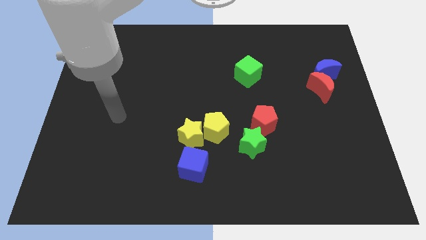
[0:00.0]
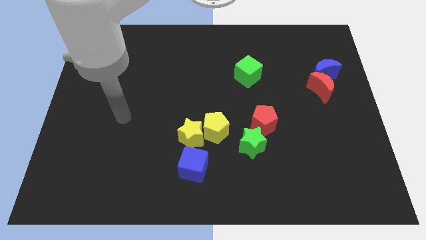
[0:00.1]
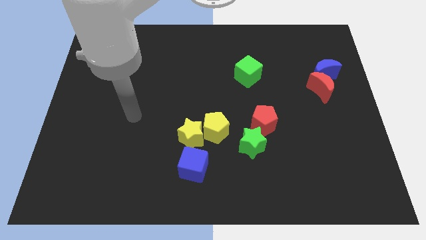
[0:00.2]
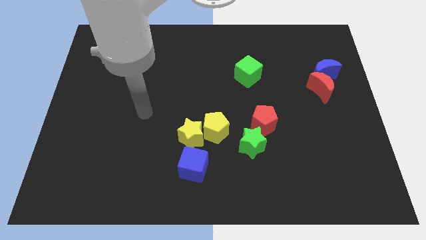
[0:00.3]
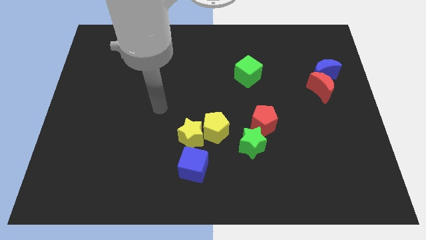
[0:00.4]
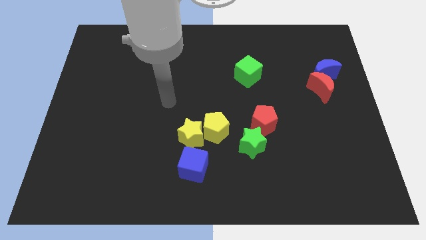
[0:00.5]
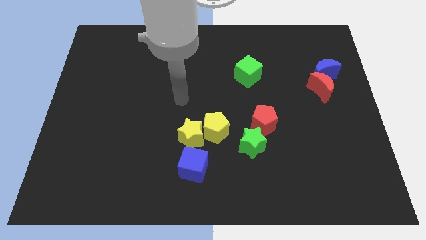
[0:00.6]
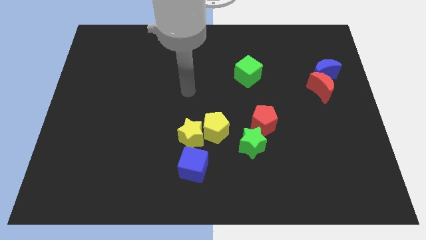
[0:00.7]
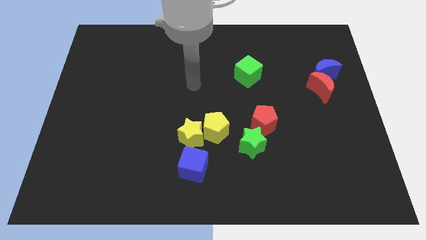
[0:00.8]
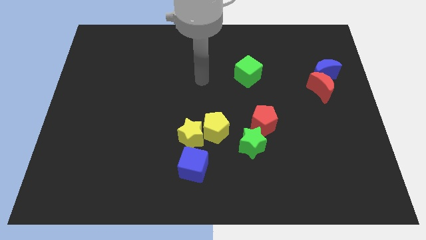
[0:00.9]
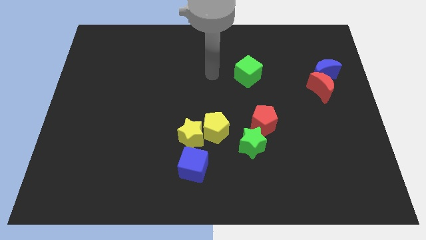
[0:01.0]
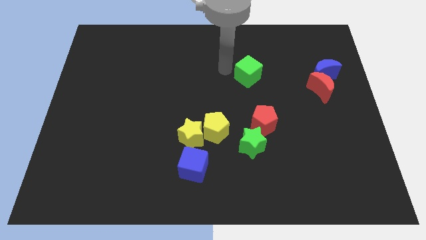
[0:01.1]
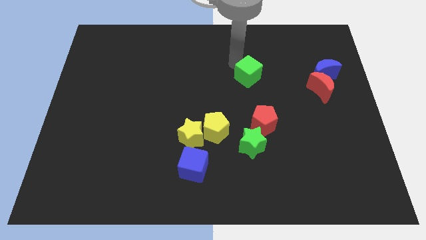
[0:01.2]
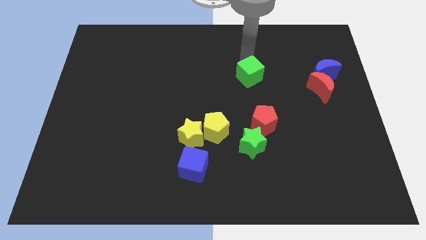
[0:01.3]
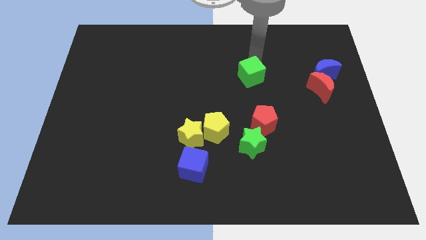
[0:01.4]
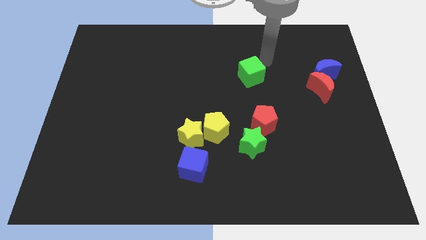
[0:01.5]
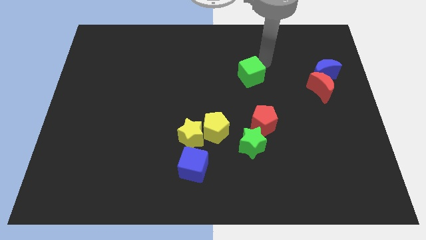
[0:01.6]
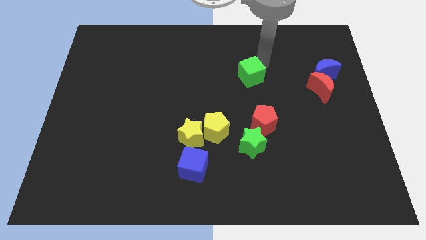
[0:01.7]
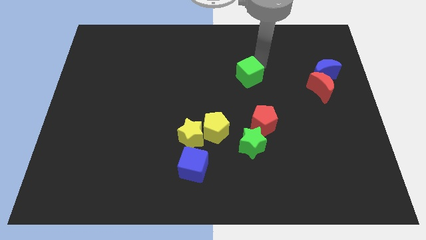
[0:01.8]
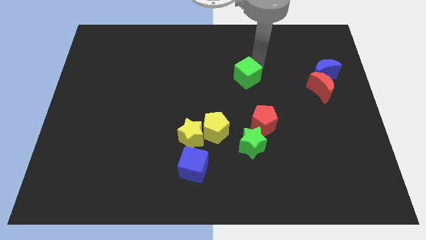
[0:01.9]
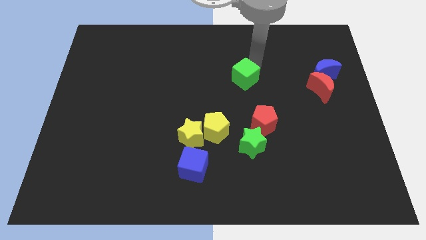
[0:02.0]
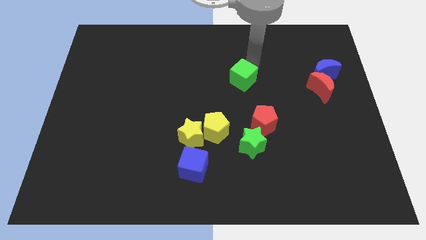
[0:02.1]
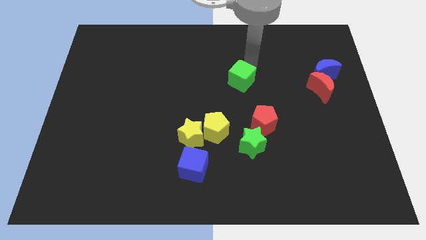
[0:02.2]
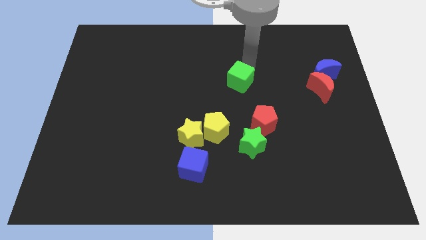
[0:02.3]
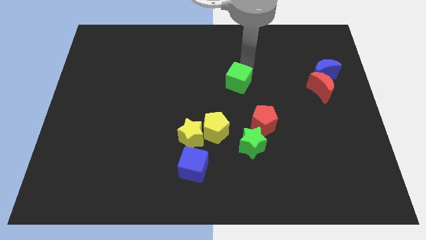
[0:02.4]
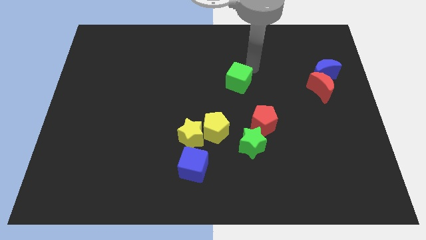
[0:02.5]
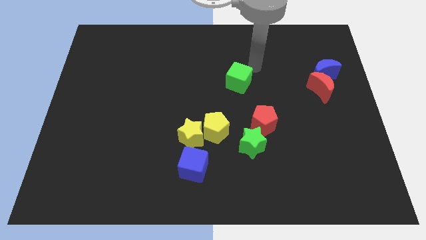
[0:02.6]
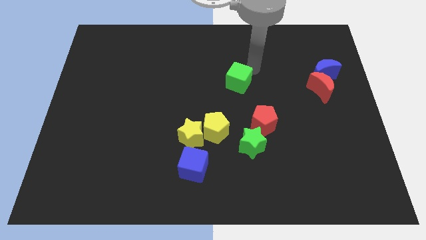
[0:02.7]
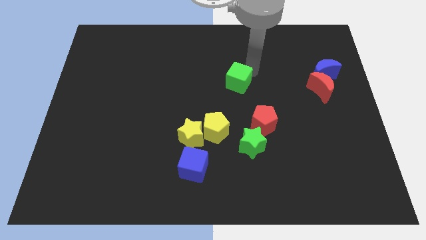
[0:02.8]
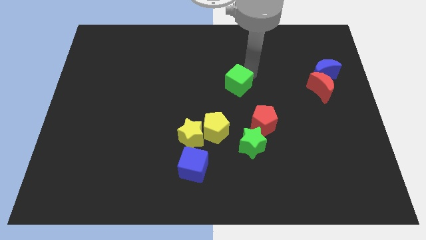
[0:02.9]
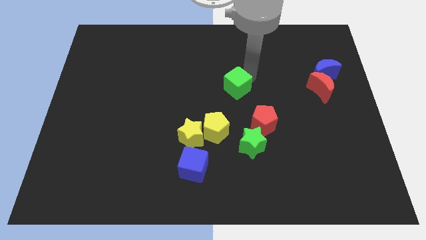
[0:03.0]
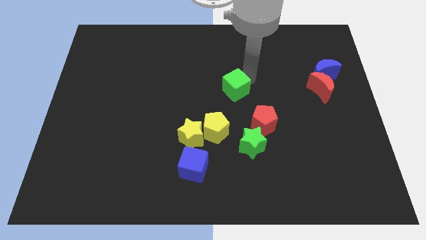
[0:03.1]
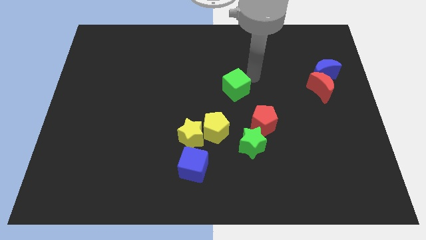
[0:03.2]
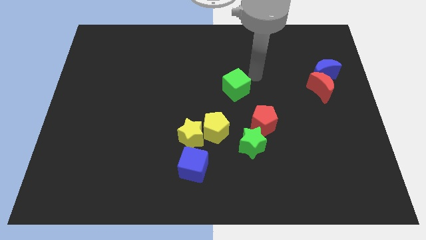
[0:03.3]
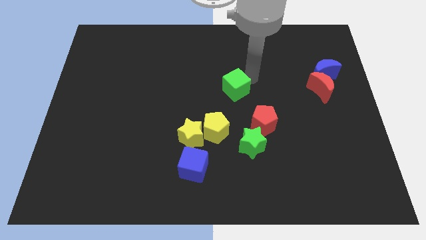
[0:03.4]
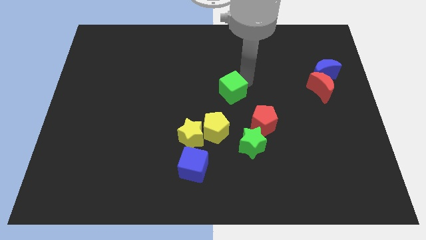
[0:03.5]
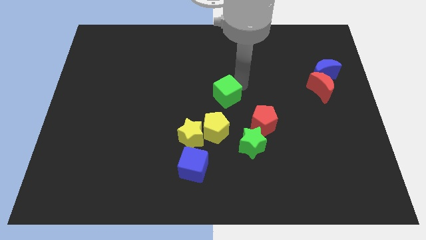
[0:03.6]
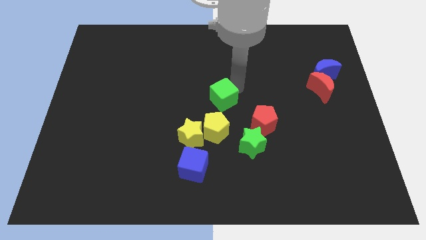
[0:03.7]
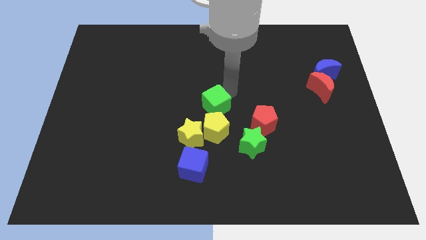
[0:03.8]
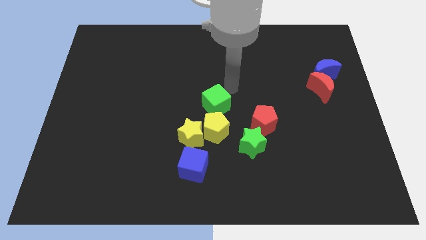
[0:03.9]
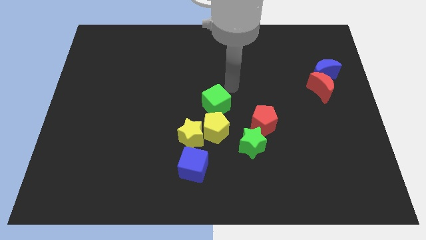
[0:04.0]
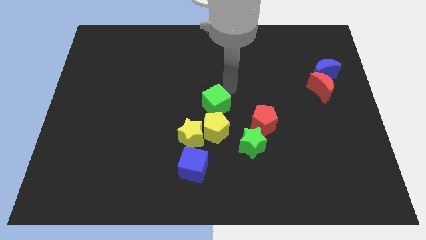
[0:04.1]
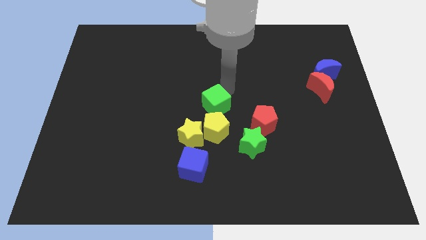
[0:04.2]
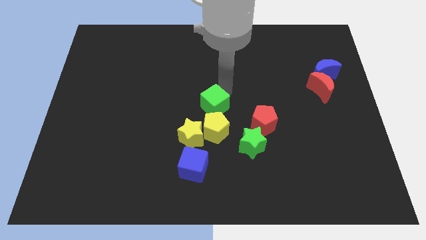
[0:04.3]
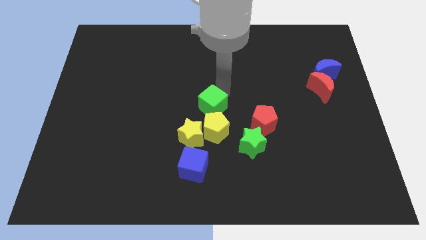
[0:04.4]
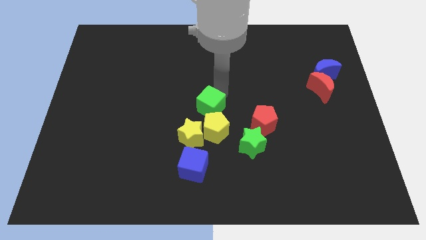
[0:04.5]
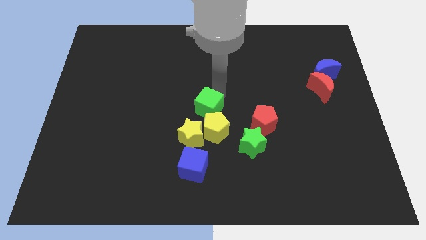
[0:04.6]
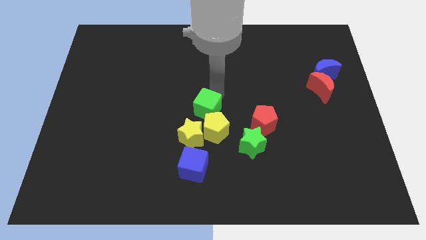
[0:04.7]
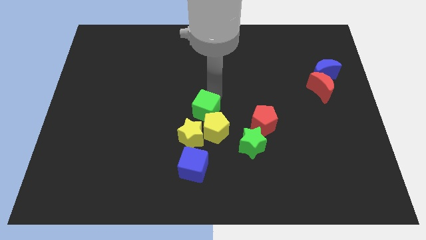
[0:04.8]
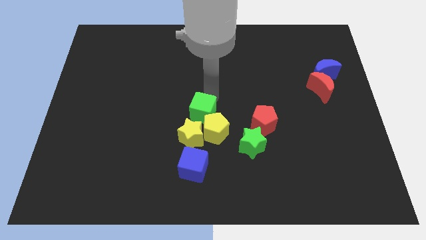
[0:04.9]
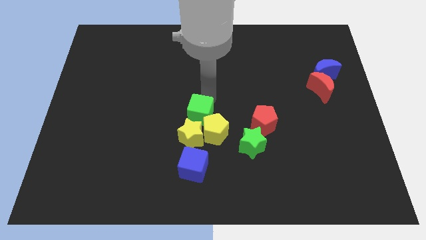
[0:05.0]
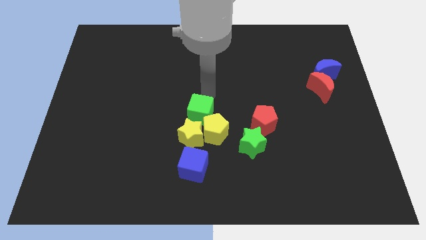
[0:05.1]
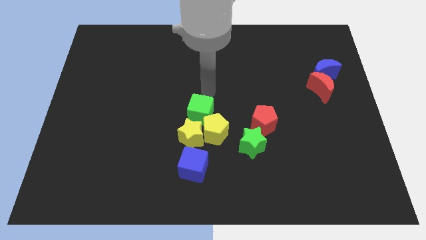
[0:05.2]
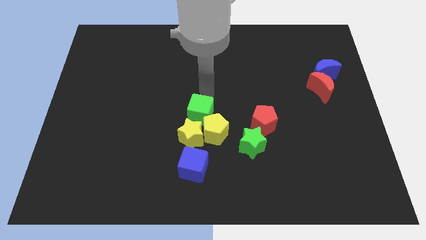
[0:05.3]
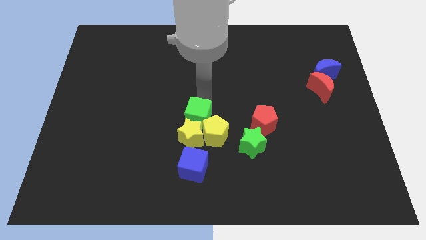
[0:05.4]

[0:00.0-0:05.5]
slide the green cube next to the yellow star

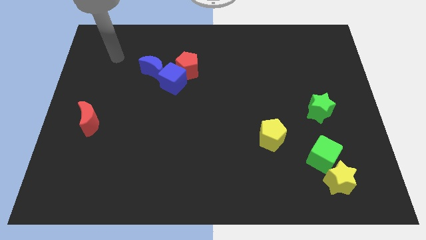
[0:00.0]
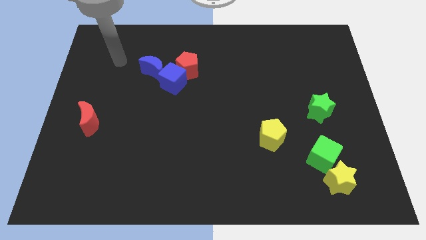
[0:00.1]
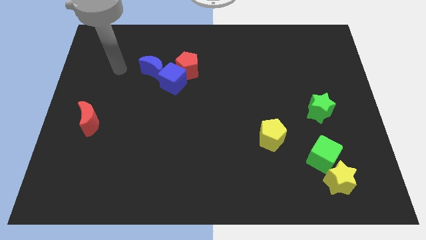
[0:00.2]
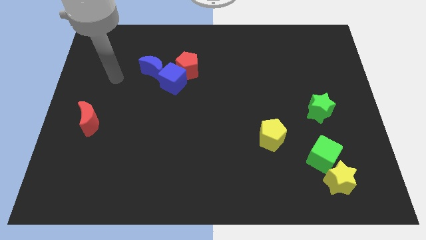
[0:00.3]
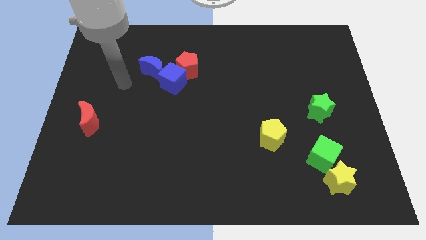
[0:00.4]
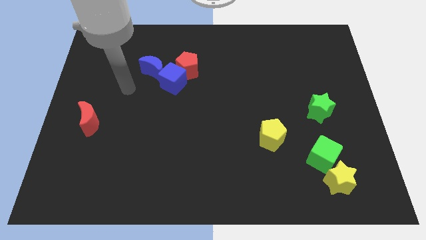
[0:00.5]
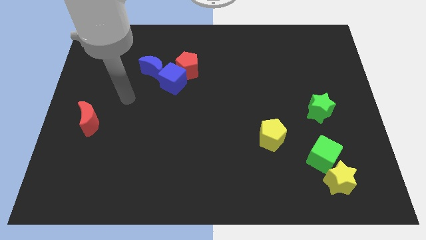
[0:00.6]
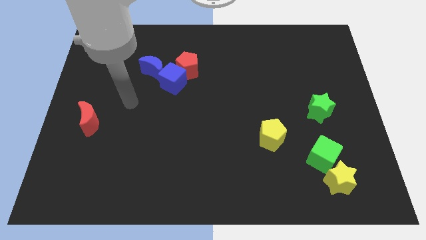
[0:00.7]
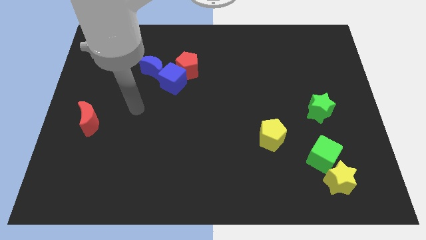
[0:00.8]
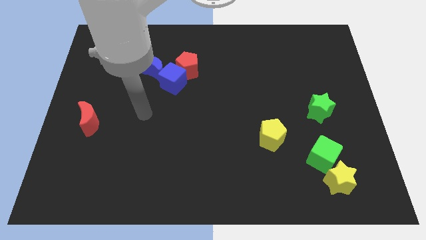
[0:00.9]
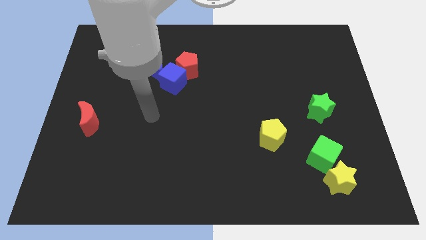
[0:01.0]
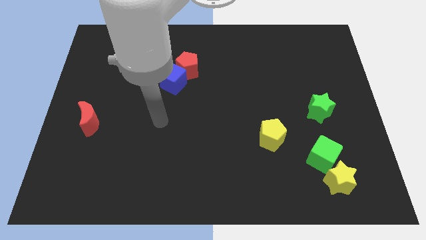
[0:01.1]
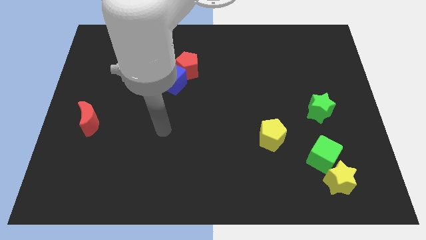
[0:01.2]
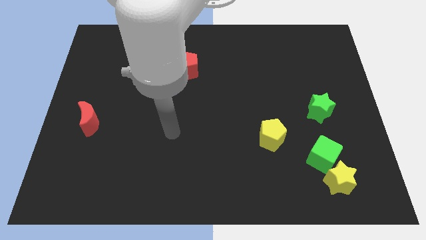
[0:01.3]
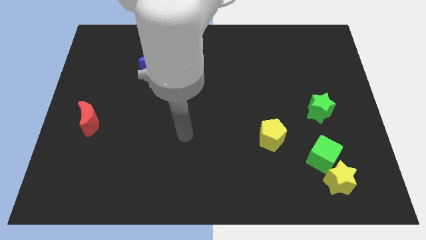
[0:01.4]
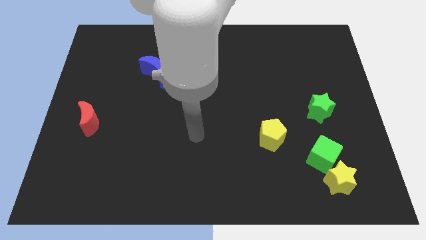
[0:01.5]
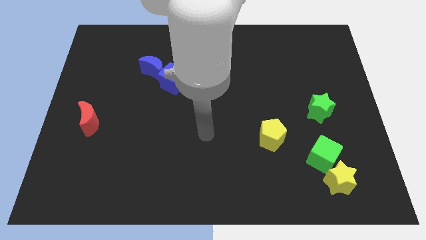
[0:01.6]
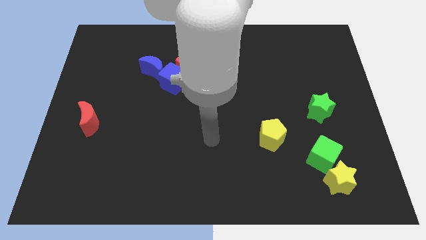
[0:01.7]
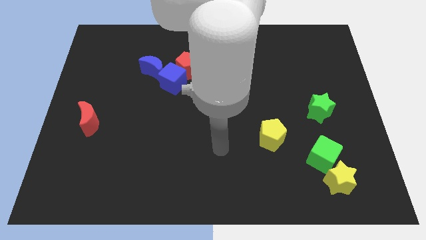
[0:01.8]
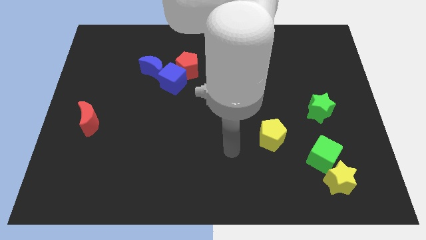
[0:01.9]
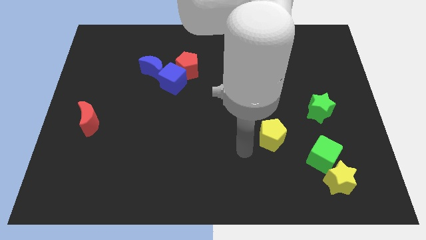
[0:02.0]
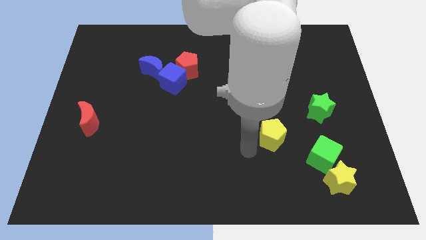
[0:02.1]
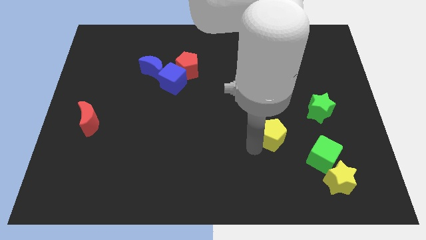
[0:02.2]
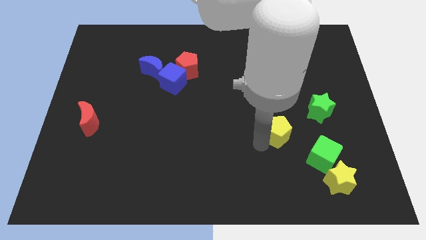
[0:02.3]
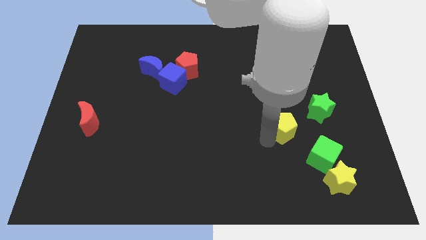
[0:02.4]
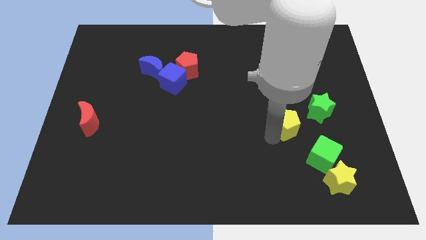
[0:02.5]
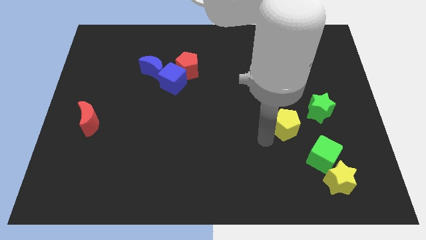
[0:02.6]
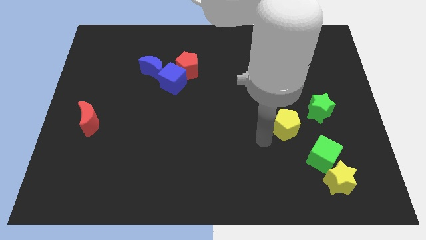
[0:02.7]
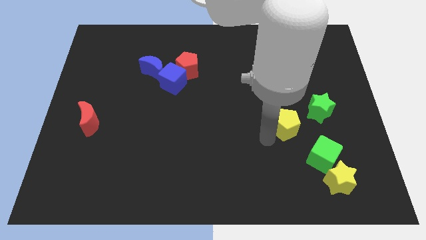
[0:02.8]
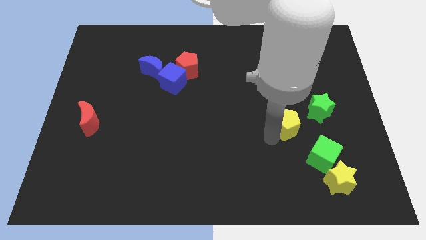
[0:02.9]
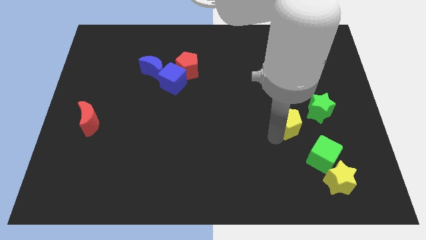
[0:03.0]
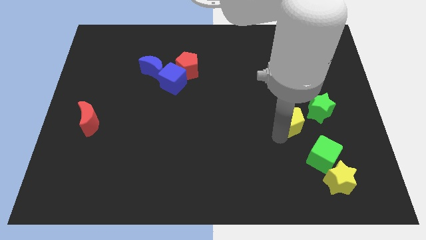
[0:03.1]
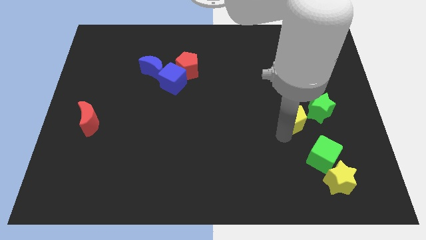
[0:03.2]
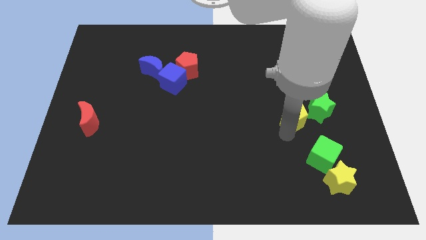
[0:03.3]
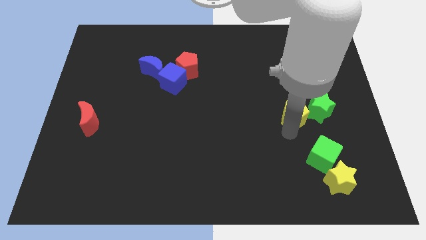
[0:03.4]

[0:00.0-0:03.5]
slide the yellow pentagon to the green star
